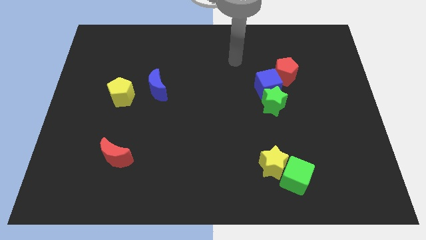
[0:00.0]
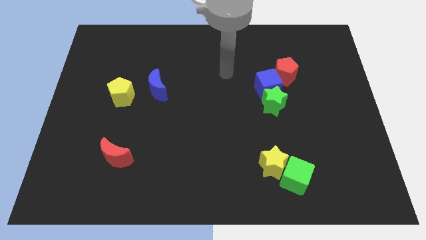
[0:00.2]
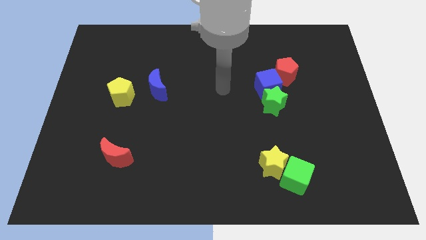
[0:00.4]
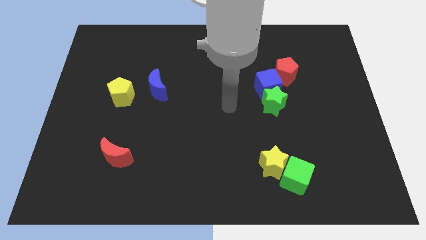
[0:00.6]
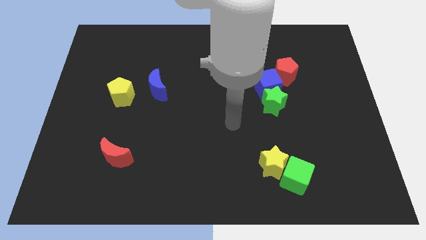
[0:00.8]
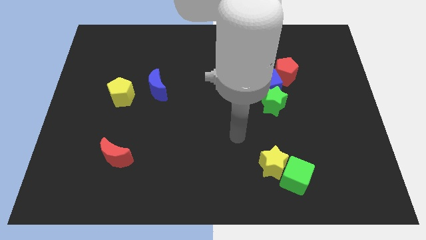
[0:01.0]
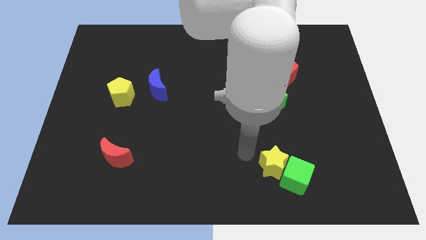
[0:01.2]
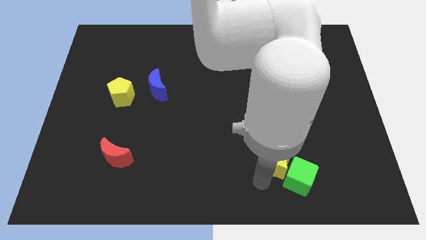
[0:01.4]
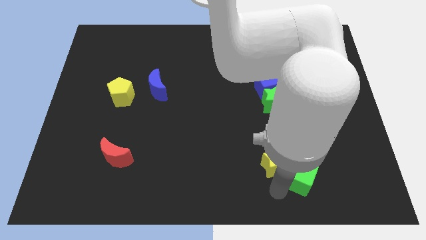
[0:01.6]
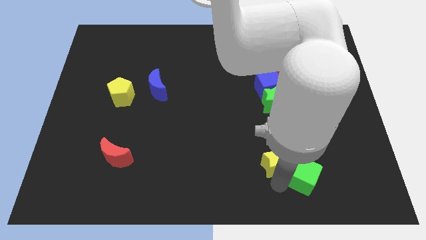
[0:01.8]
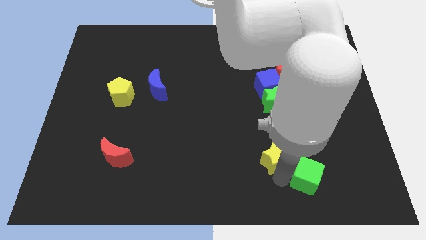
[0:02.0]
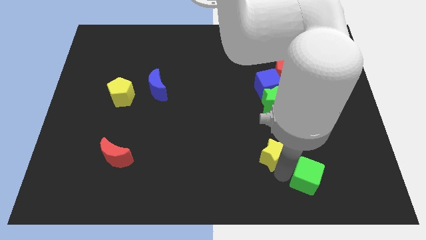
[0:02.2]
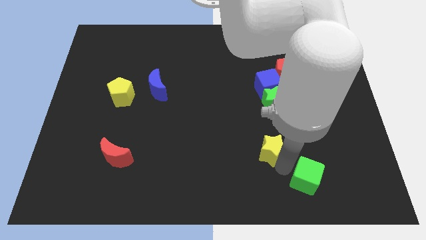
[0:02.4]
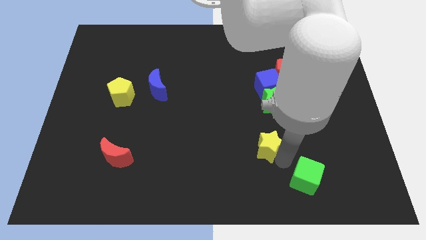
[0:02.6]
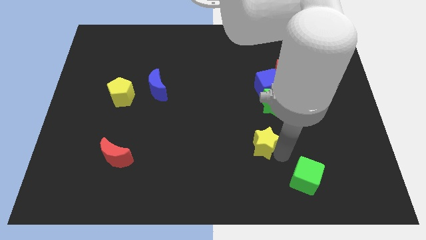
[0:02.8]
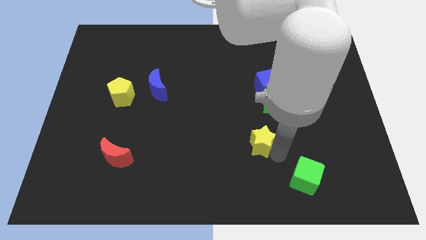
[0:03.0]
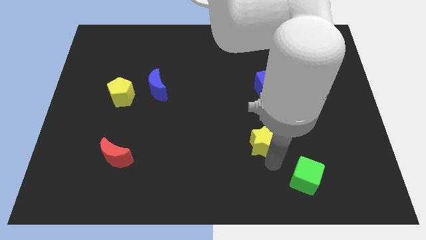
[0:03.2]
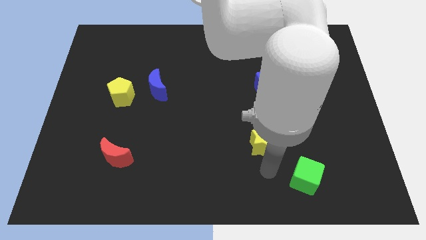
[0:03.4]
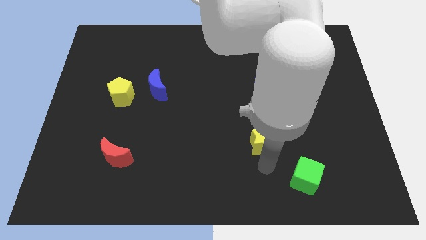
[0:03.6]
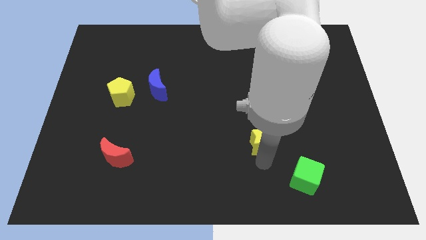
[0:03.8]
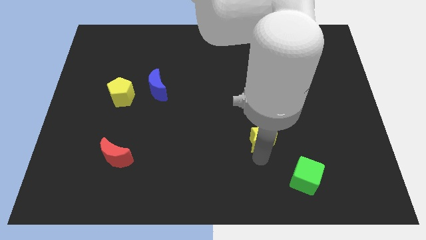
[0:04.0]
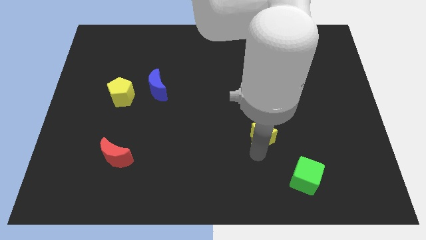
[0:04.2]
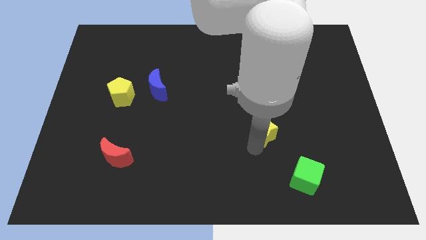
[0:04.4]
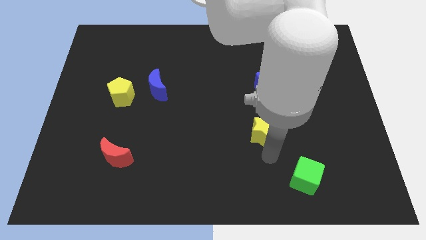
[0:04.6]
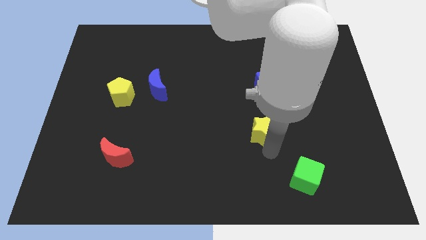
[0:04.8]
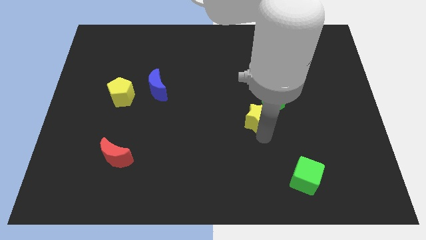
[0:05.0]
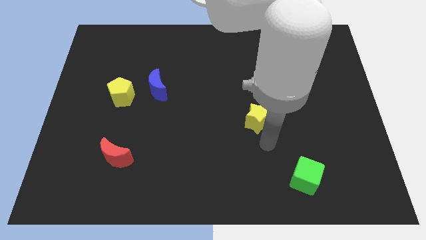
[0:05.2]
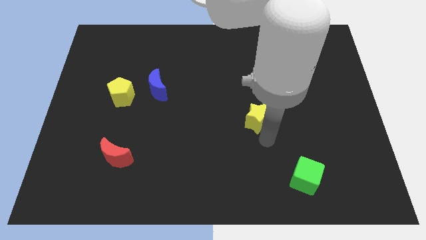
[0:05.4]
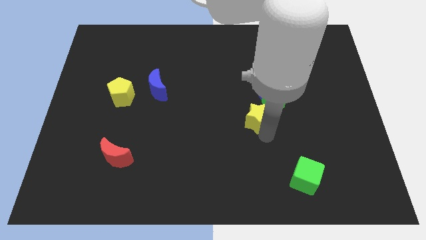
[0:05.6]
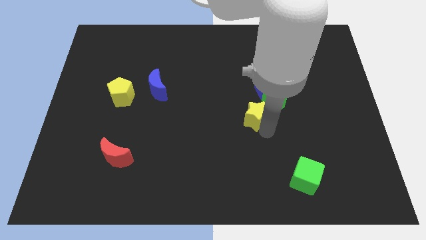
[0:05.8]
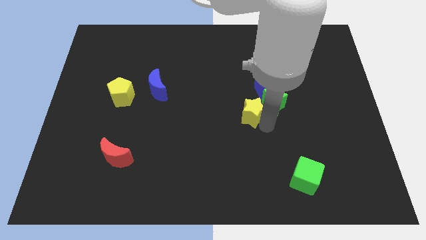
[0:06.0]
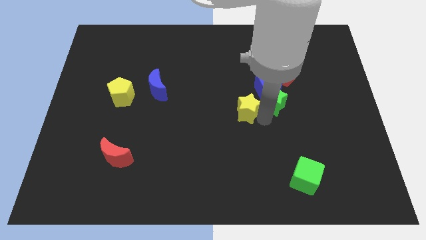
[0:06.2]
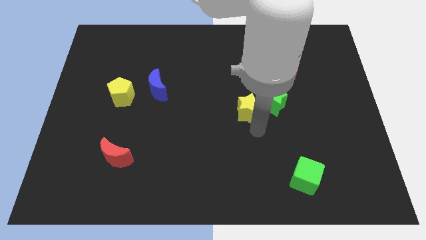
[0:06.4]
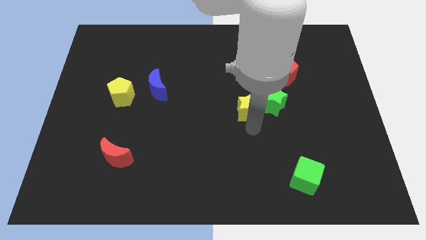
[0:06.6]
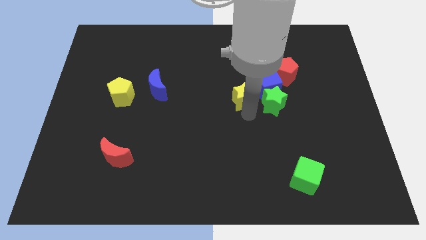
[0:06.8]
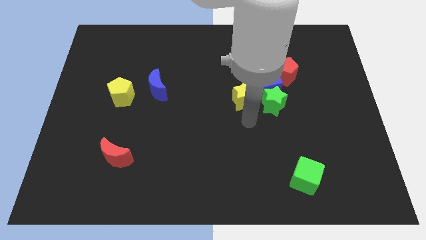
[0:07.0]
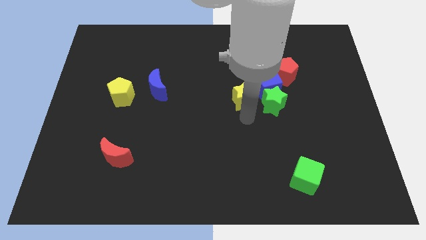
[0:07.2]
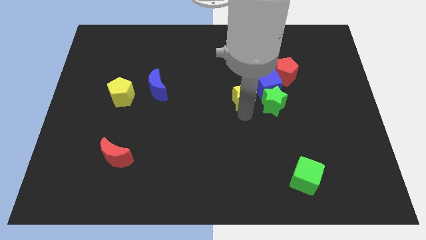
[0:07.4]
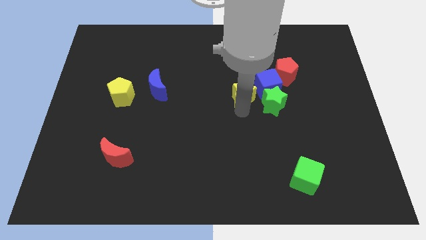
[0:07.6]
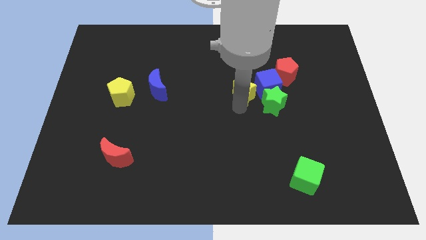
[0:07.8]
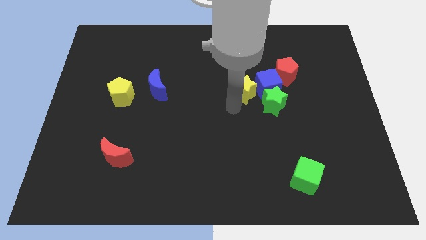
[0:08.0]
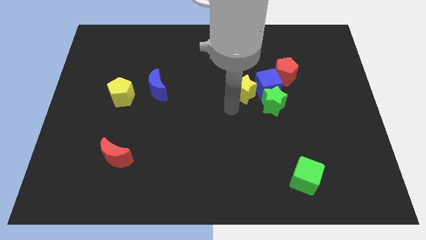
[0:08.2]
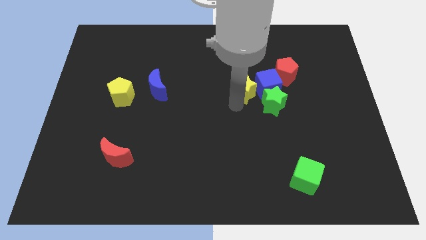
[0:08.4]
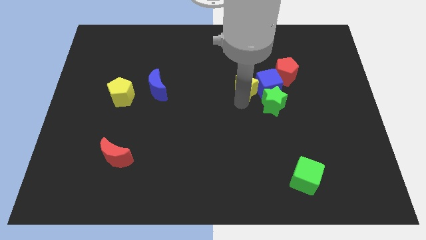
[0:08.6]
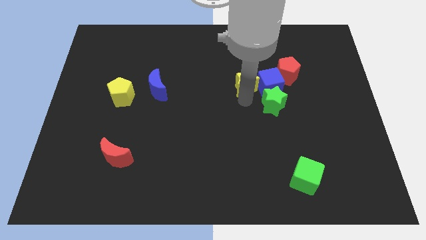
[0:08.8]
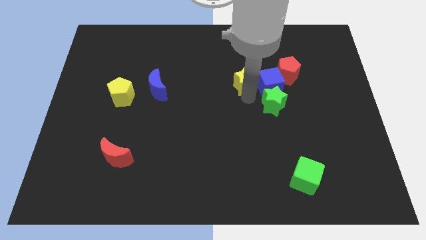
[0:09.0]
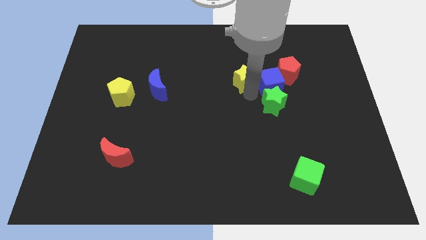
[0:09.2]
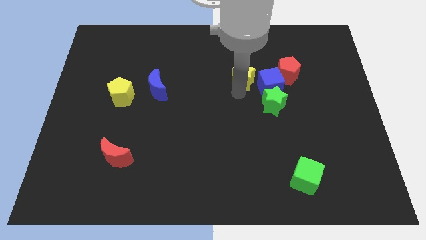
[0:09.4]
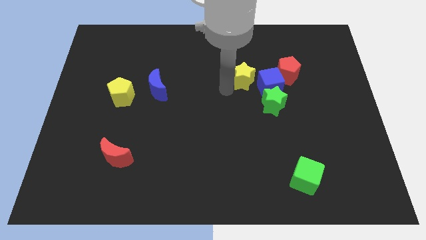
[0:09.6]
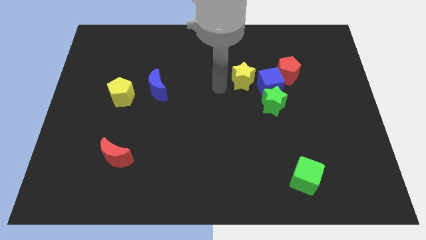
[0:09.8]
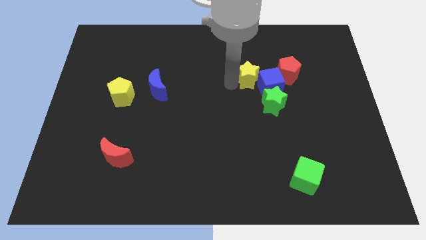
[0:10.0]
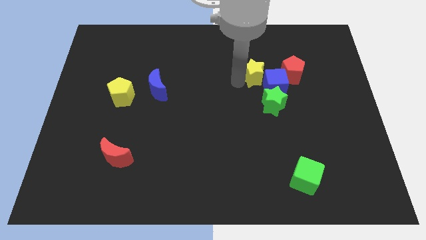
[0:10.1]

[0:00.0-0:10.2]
put the yellow star to the top of the green star

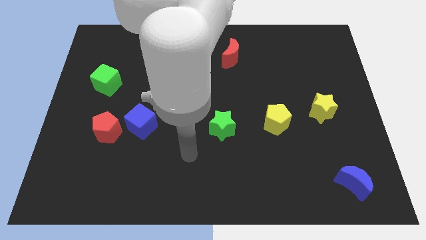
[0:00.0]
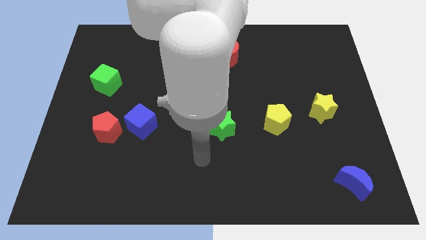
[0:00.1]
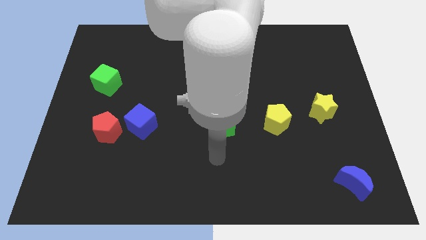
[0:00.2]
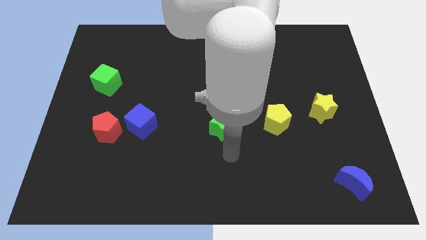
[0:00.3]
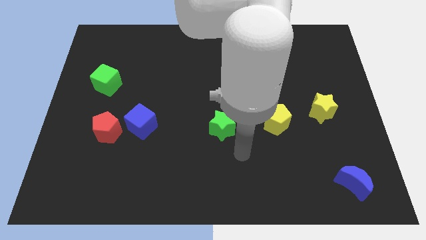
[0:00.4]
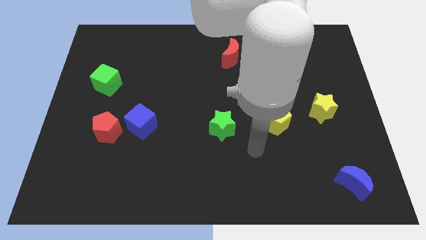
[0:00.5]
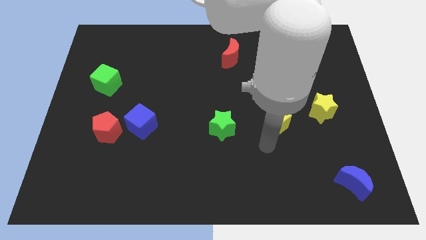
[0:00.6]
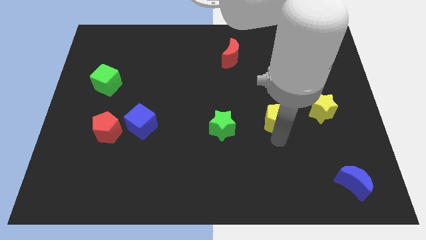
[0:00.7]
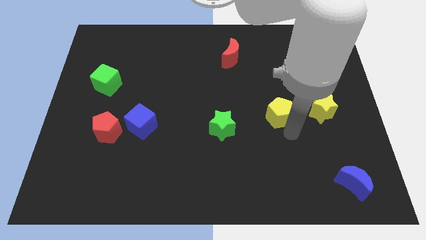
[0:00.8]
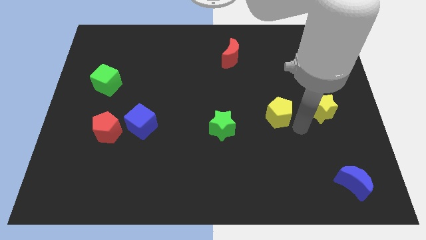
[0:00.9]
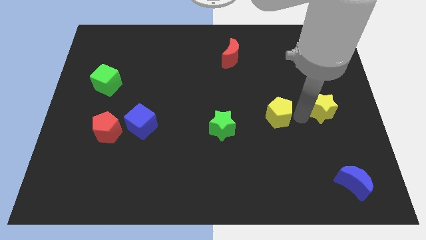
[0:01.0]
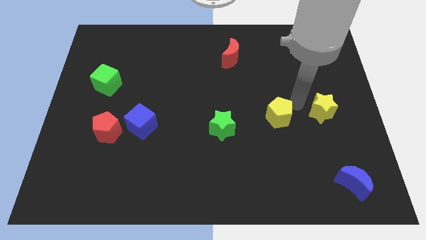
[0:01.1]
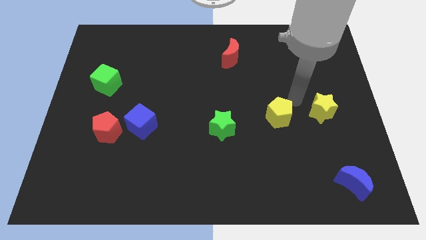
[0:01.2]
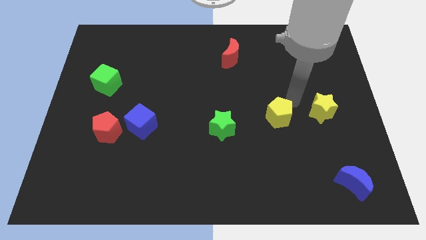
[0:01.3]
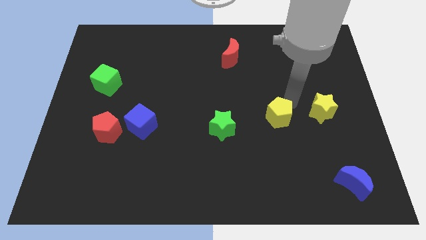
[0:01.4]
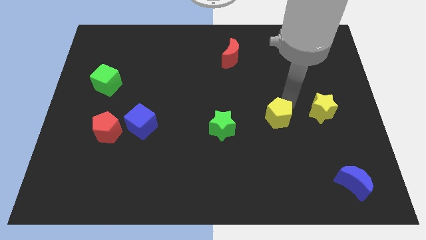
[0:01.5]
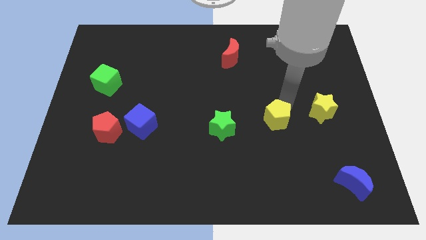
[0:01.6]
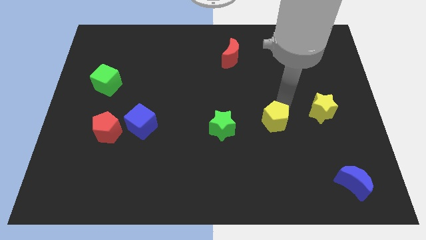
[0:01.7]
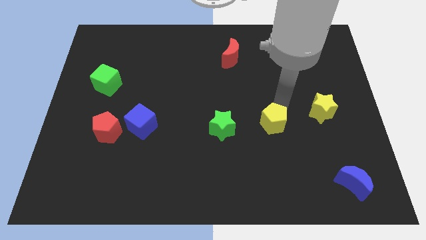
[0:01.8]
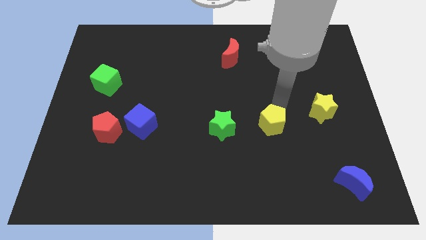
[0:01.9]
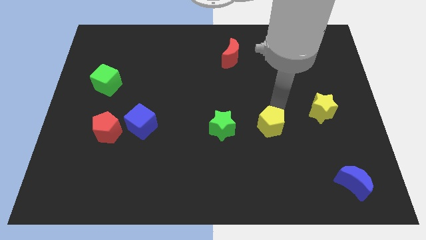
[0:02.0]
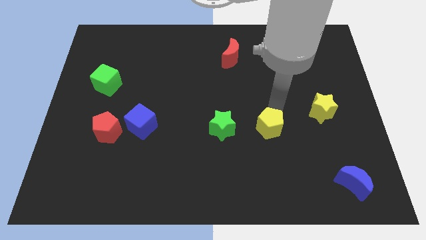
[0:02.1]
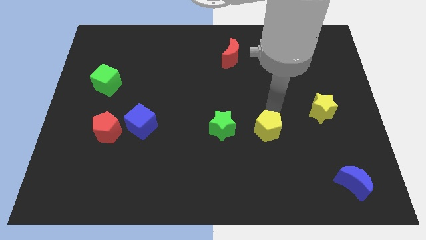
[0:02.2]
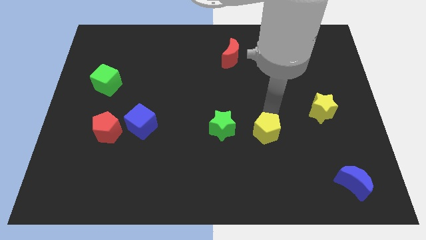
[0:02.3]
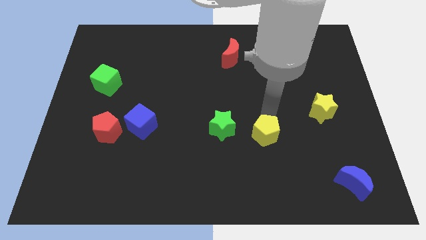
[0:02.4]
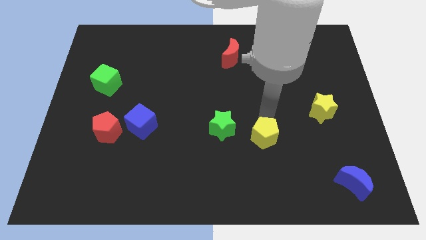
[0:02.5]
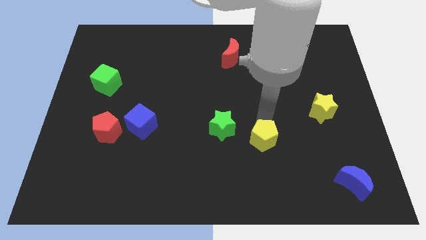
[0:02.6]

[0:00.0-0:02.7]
move the yellow pentagon to the bottom right of the green star

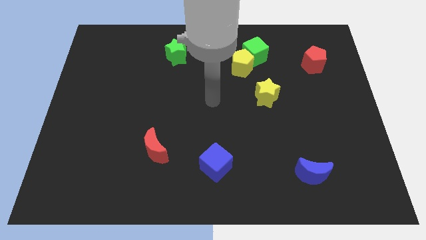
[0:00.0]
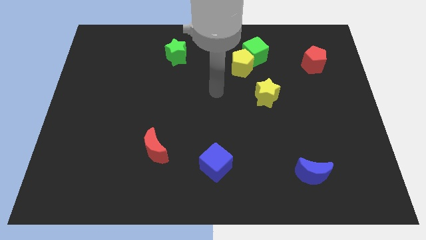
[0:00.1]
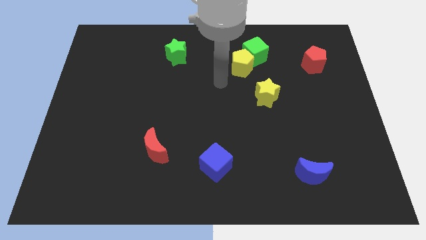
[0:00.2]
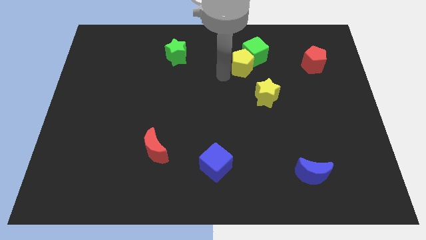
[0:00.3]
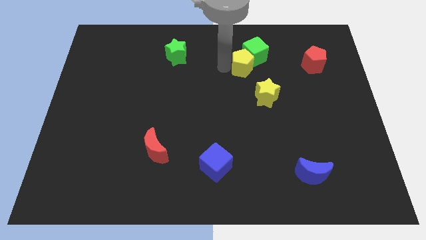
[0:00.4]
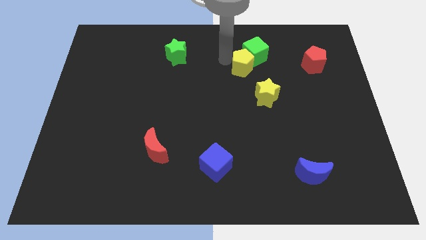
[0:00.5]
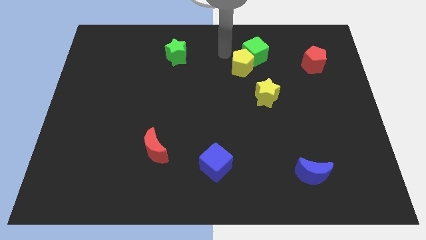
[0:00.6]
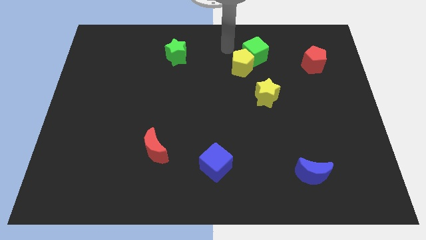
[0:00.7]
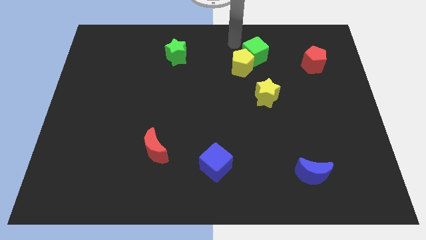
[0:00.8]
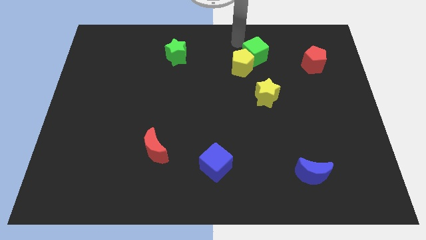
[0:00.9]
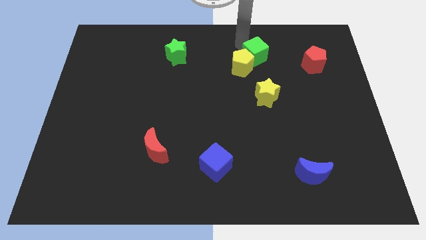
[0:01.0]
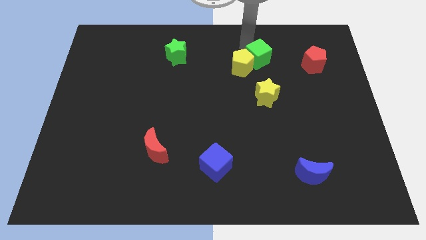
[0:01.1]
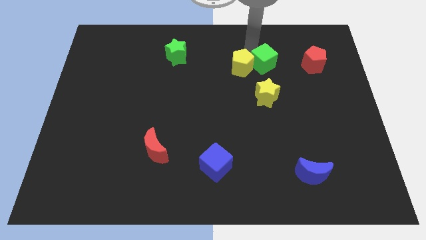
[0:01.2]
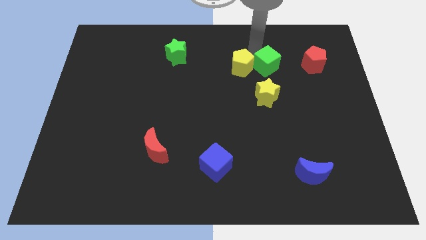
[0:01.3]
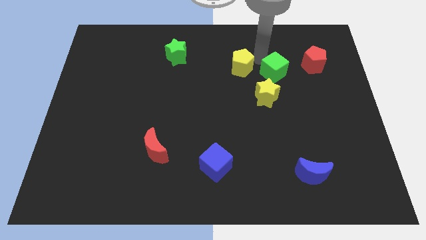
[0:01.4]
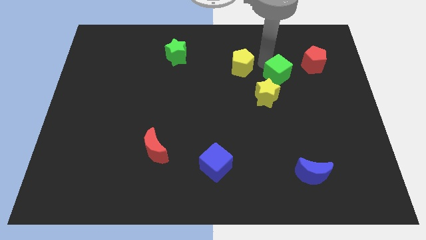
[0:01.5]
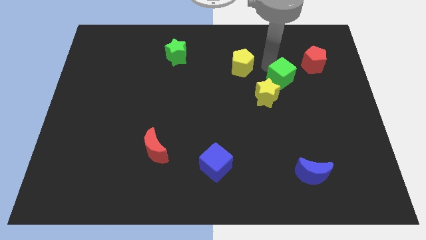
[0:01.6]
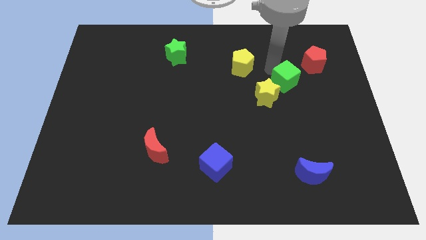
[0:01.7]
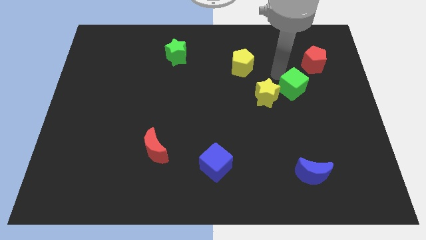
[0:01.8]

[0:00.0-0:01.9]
push the green cube right of the yellow star
